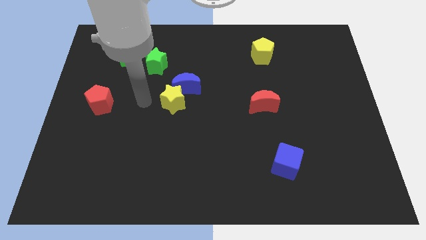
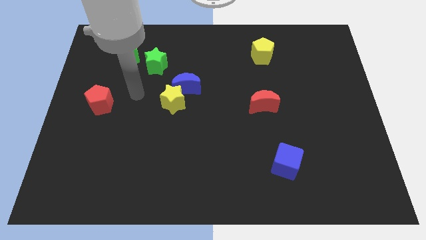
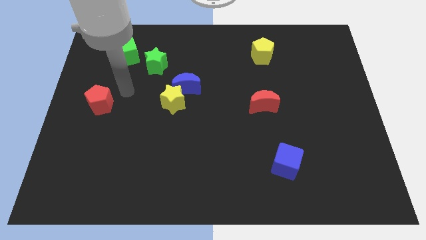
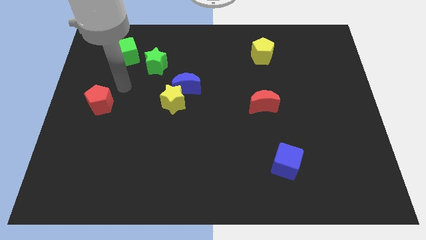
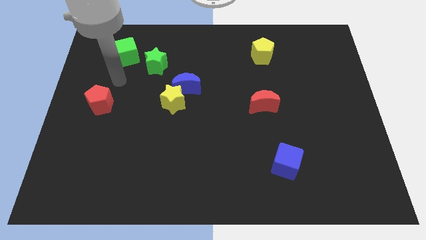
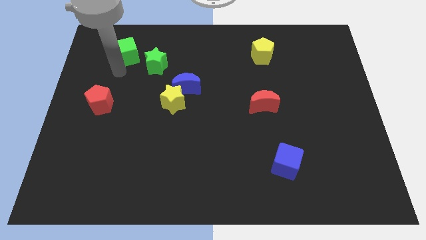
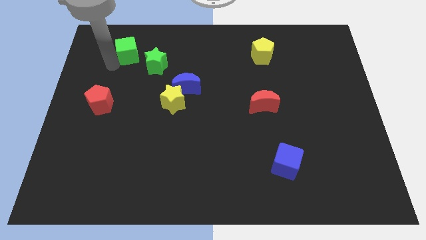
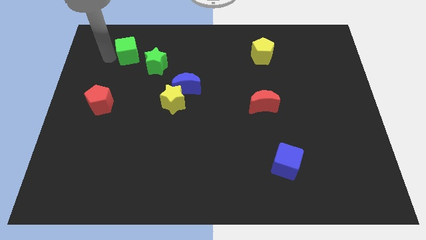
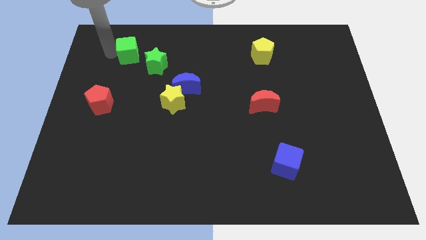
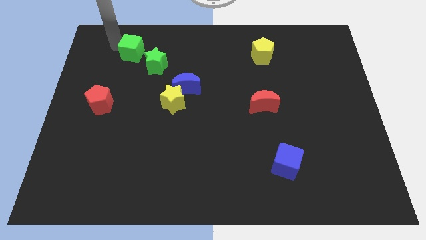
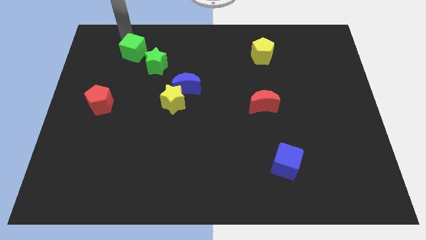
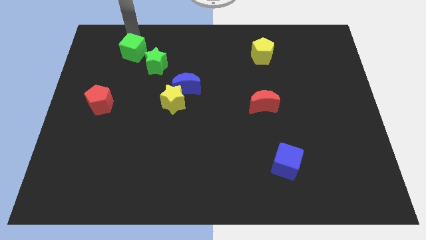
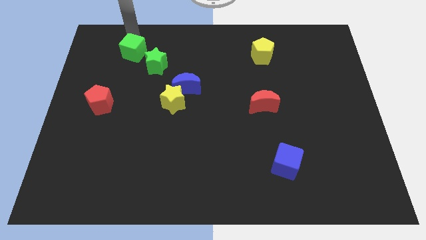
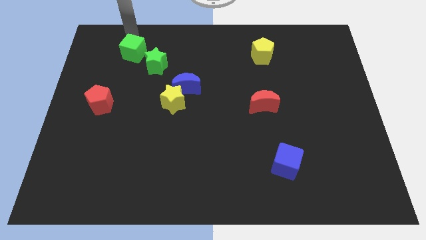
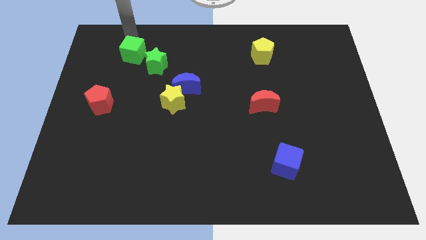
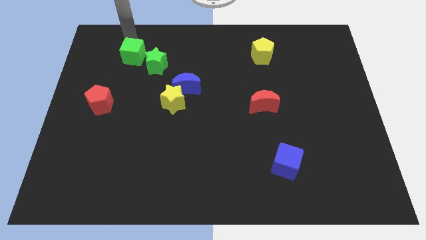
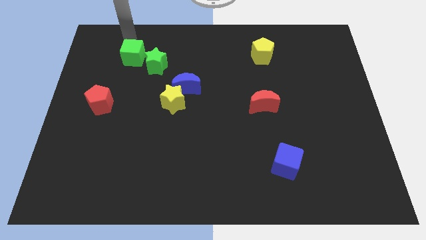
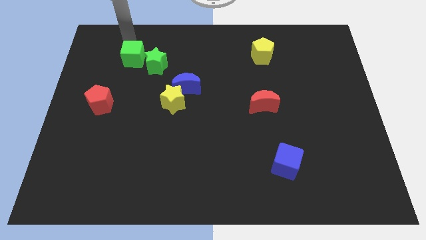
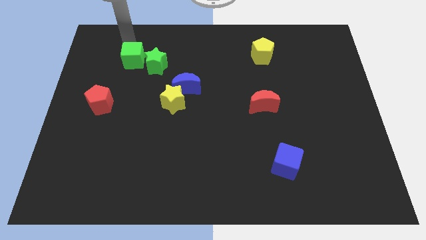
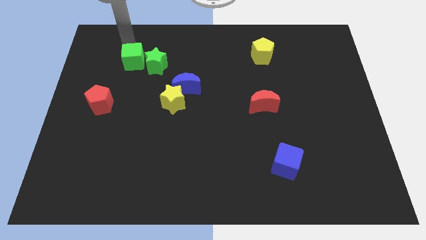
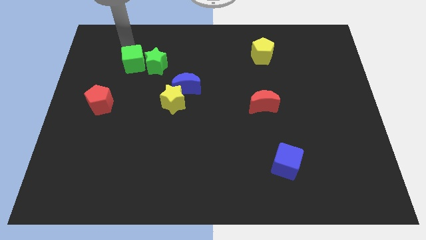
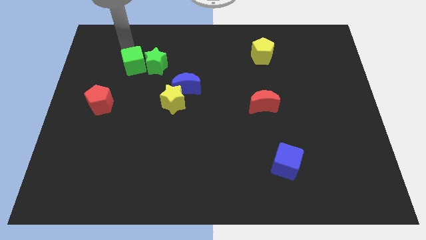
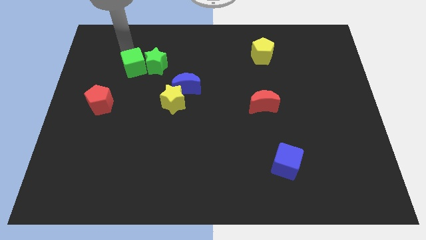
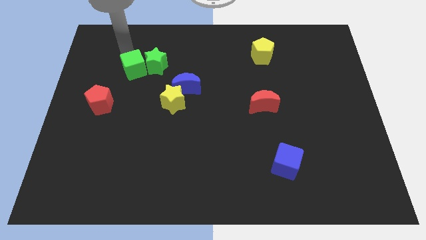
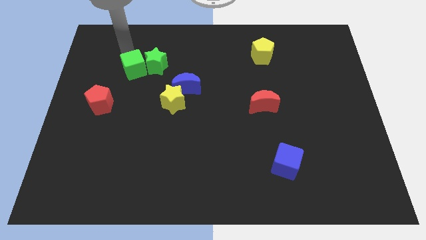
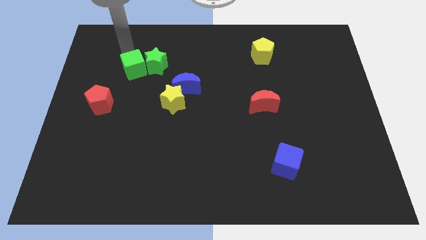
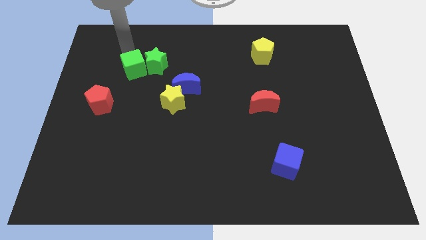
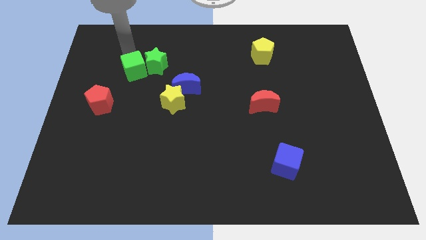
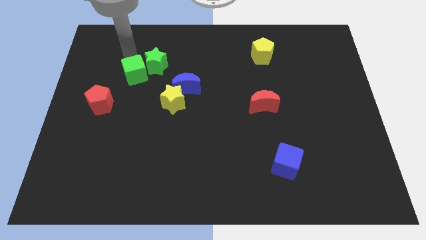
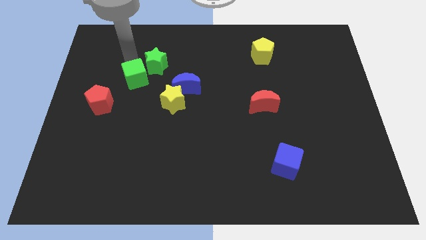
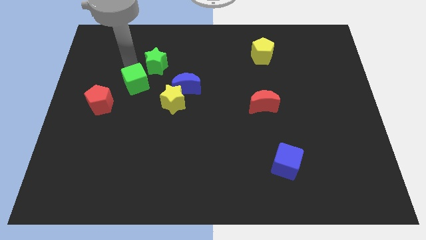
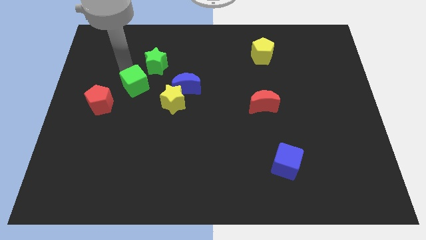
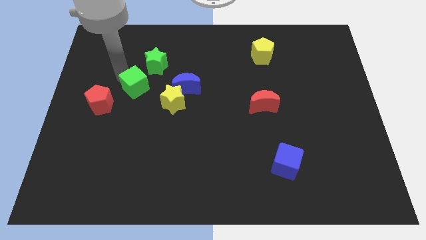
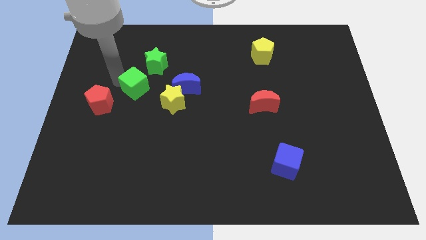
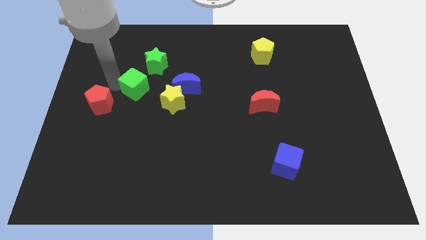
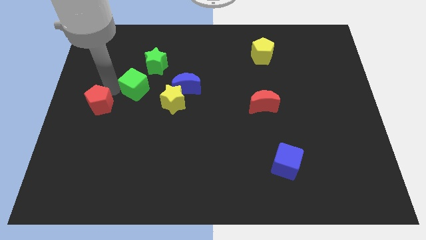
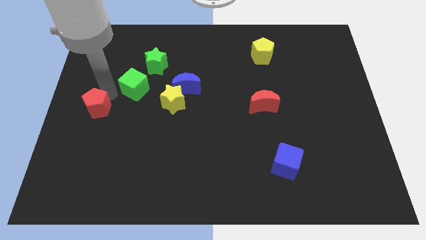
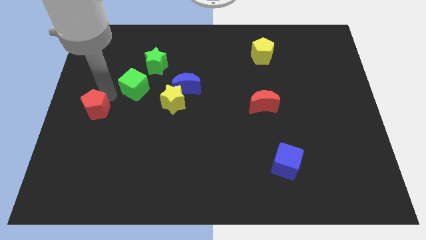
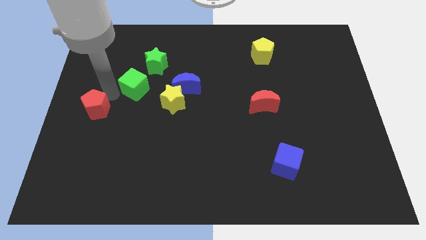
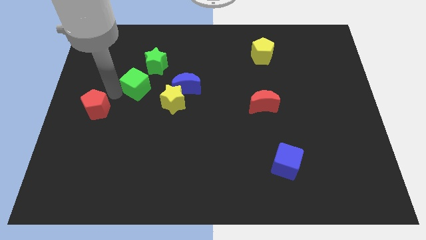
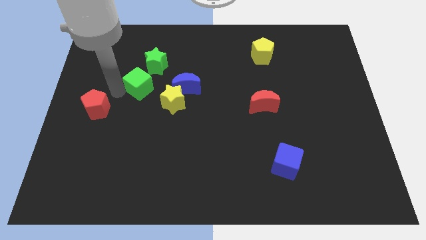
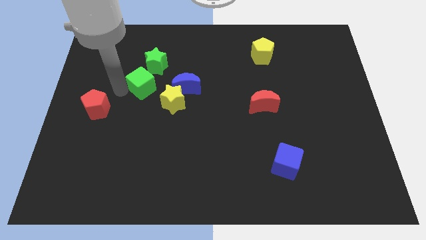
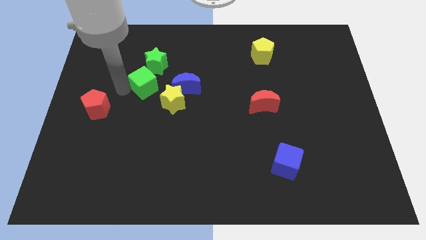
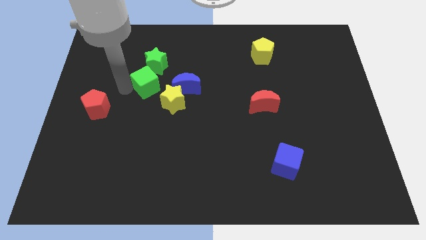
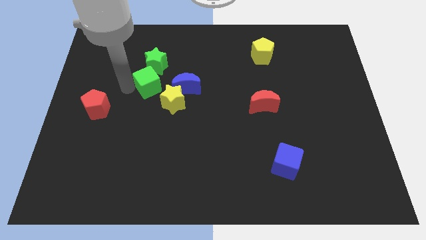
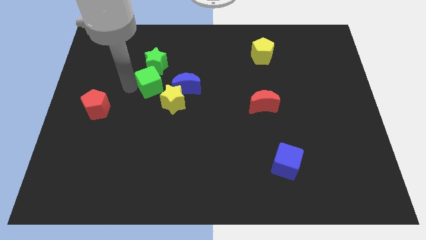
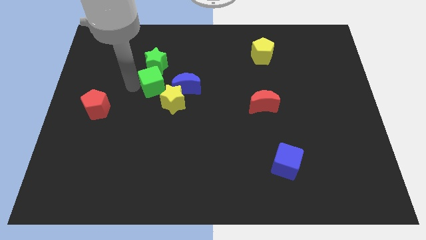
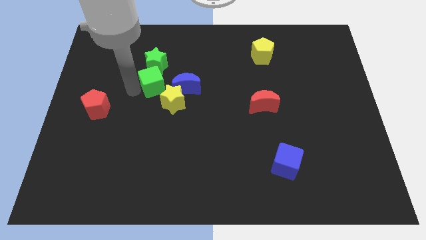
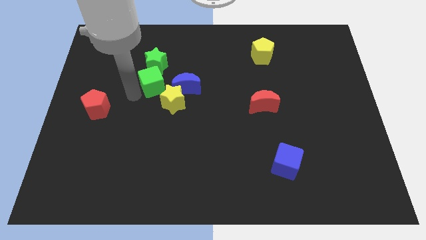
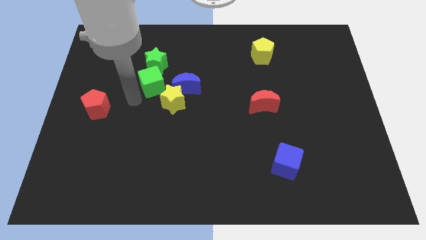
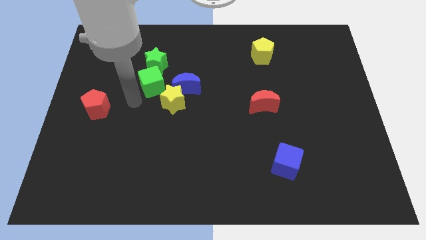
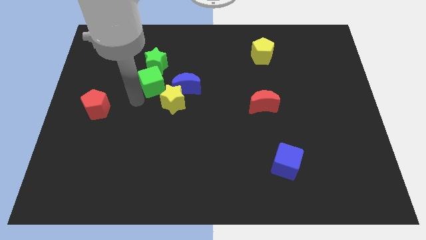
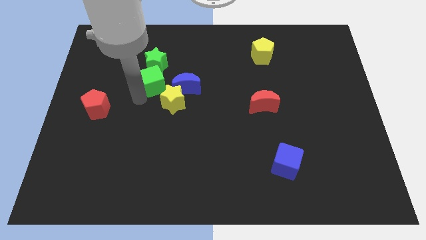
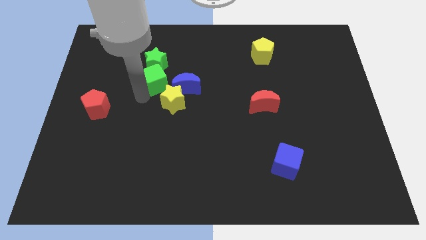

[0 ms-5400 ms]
move the green cube to the top left side of the blue moon

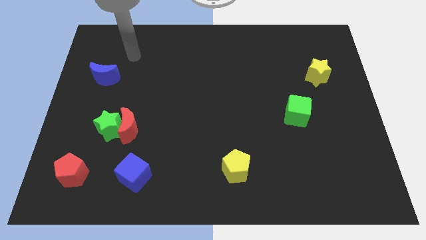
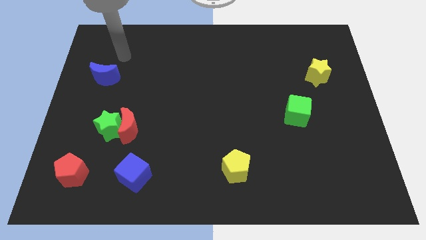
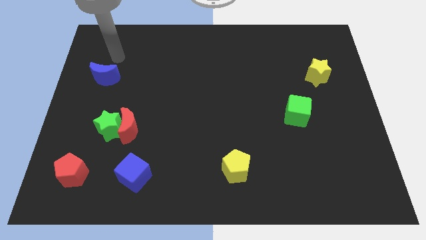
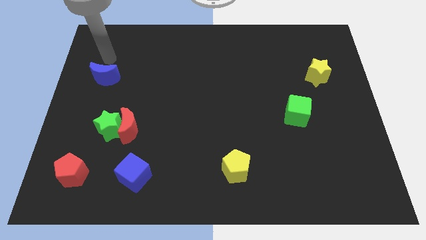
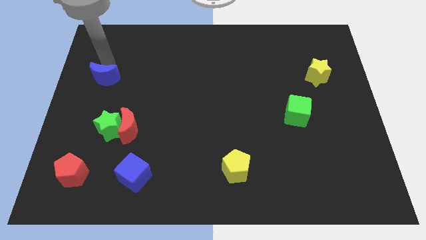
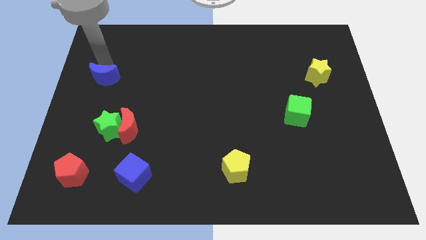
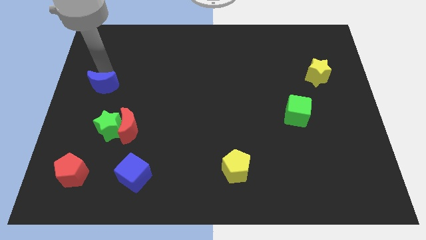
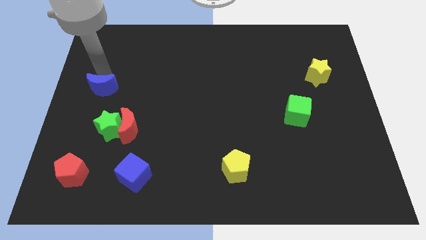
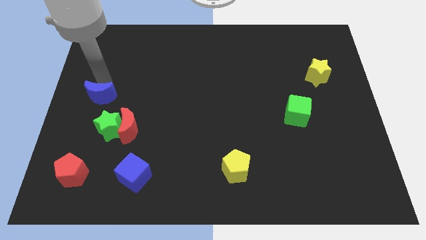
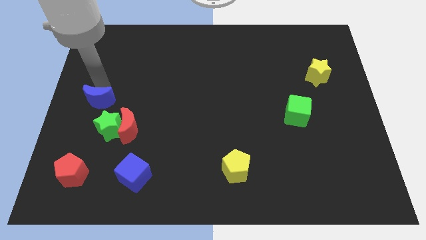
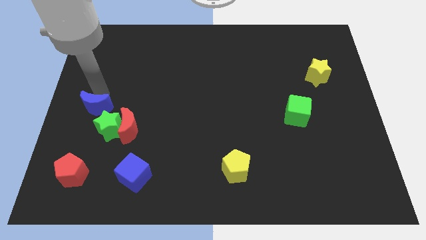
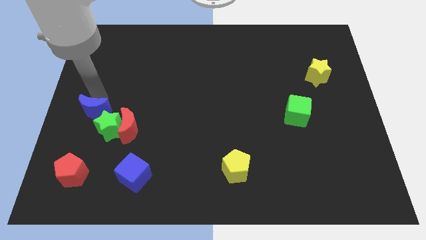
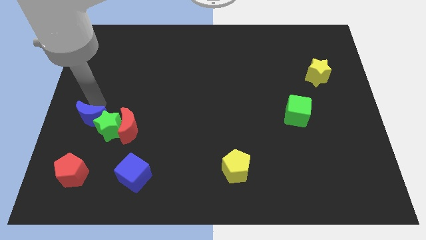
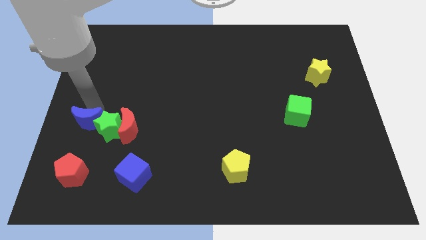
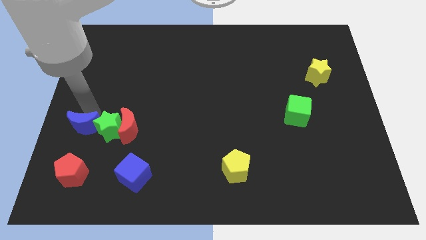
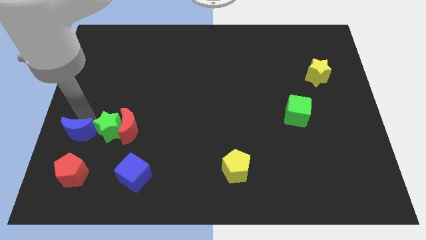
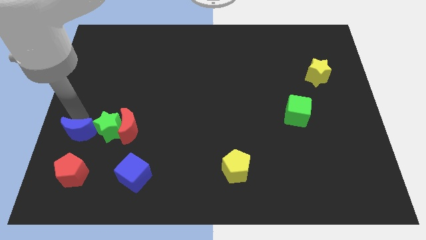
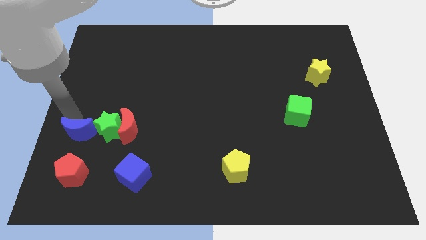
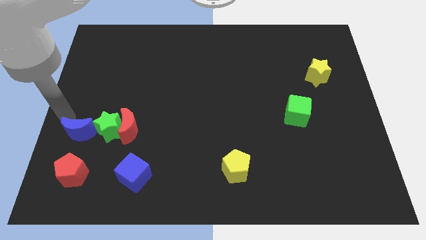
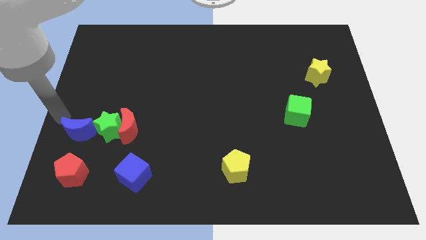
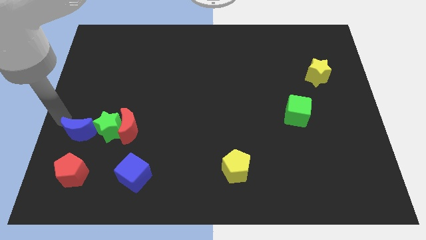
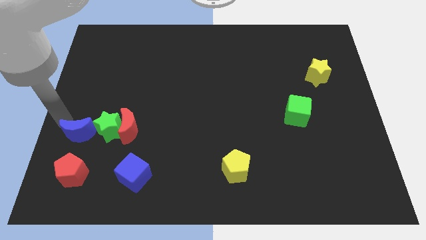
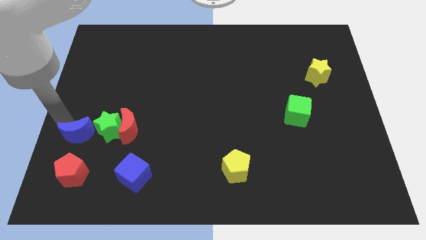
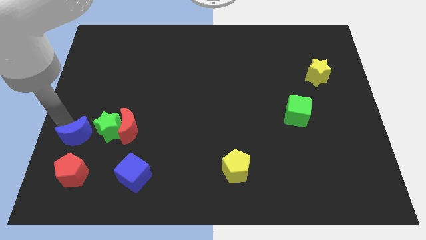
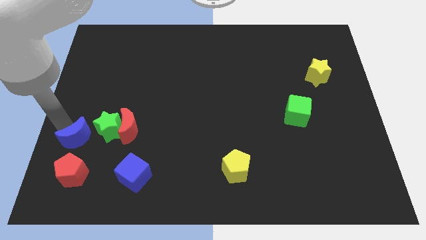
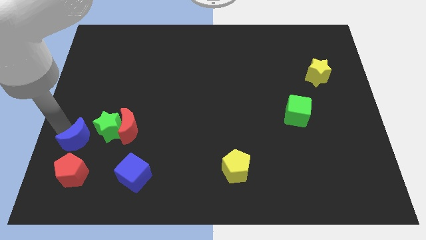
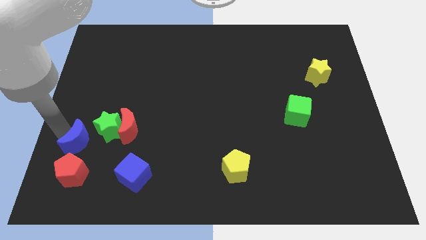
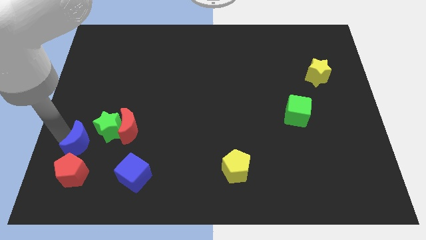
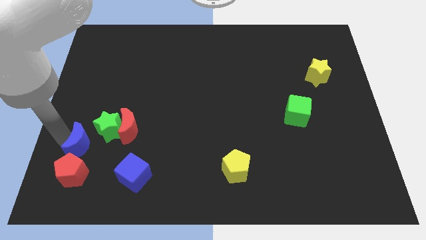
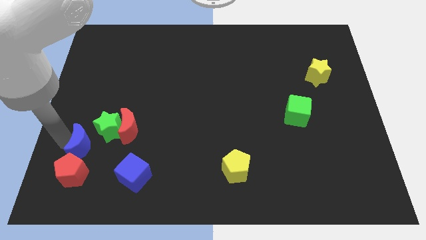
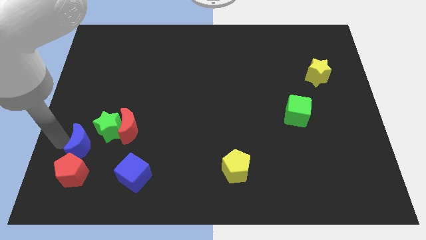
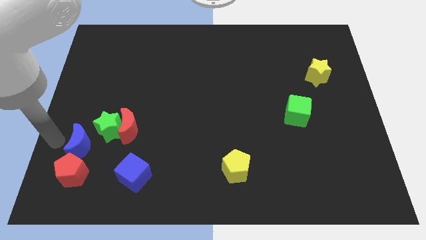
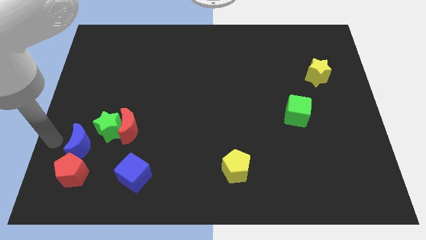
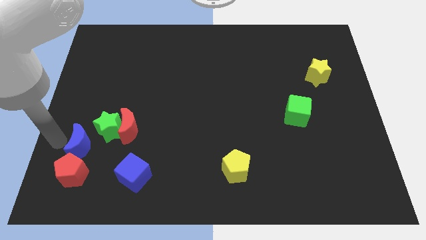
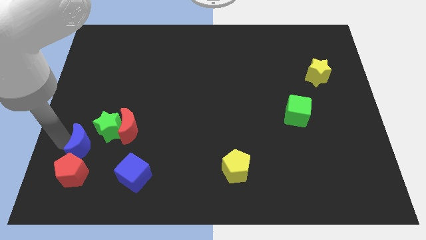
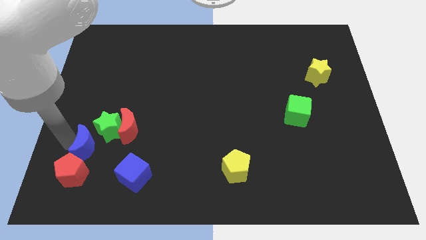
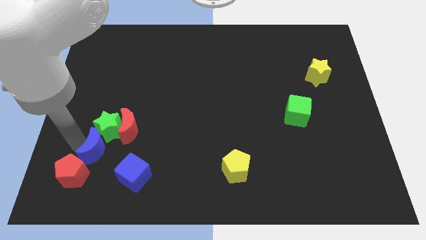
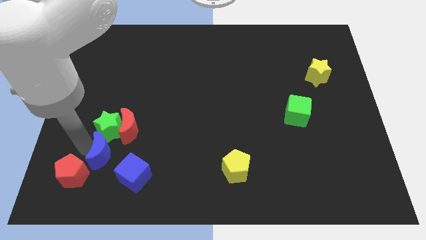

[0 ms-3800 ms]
put the blue moon diagonally down and to the right of the green star
